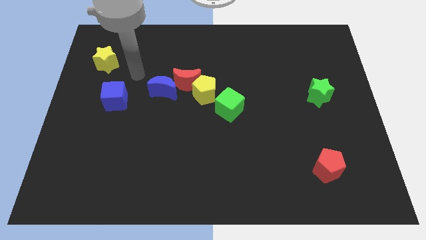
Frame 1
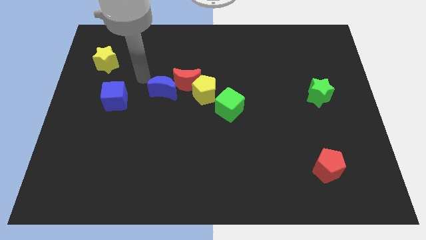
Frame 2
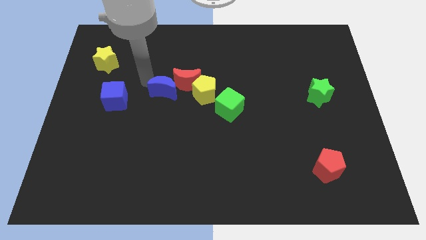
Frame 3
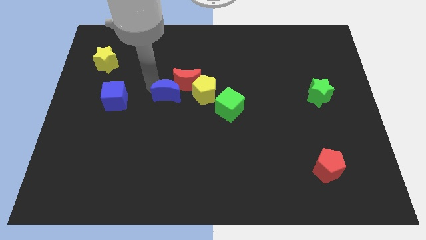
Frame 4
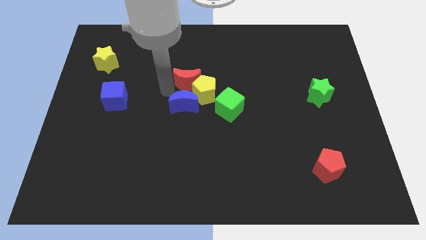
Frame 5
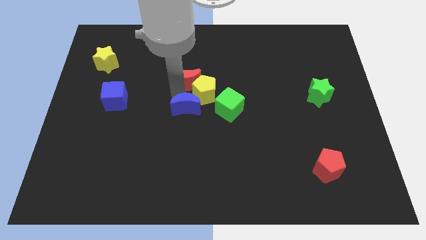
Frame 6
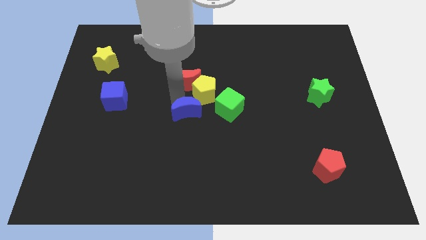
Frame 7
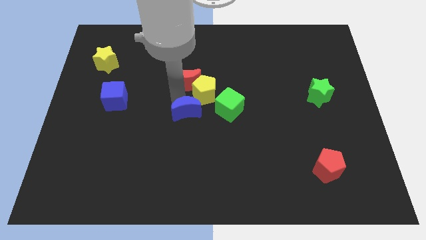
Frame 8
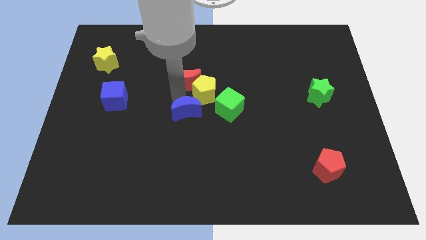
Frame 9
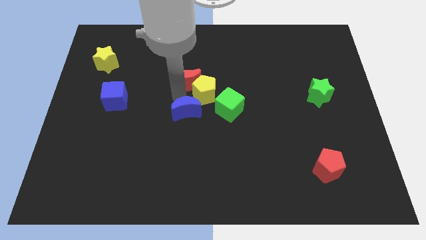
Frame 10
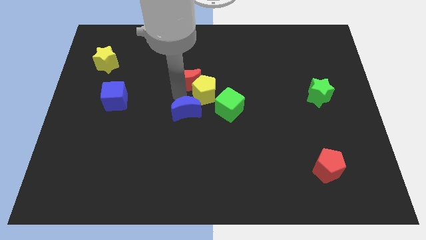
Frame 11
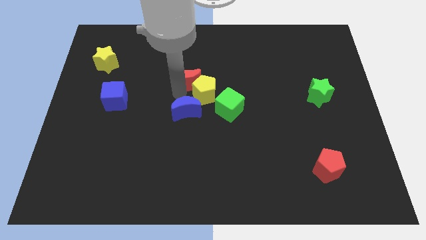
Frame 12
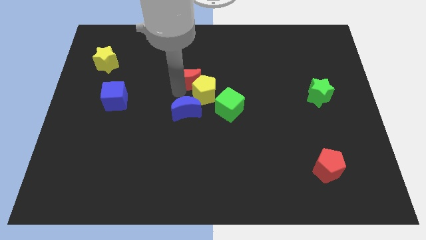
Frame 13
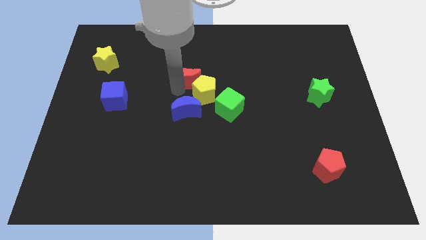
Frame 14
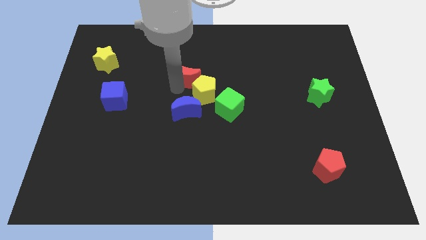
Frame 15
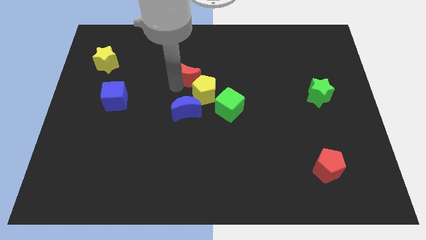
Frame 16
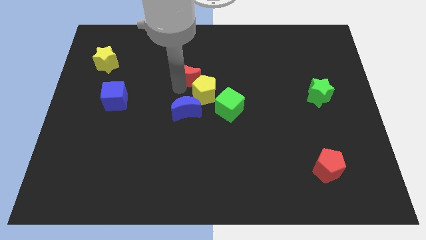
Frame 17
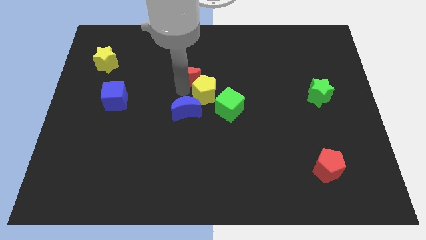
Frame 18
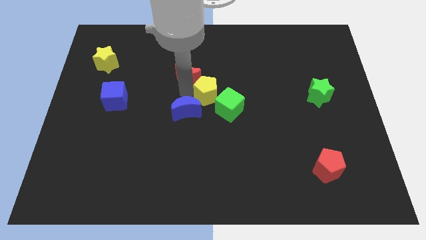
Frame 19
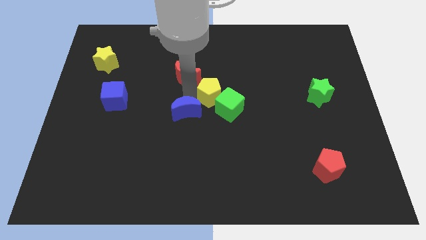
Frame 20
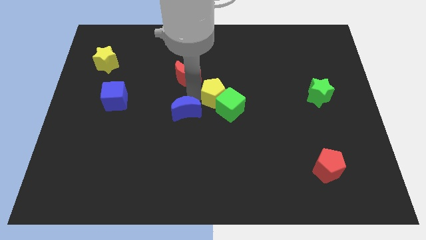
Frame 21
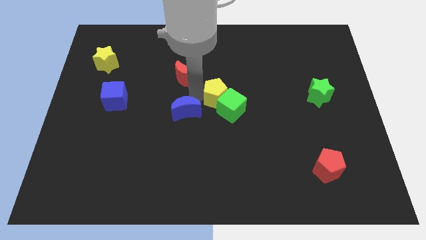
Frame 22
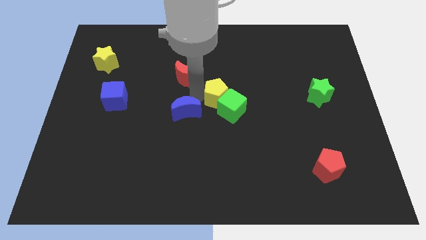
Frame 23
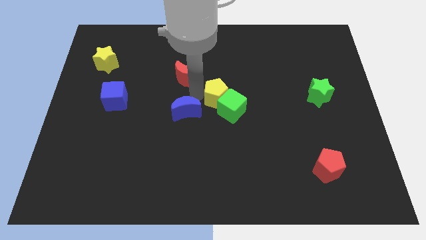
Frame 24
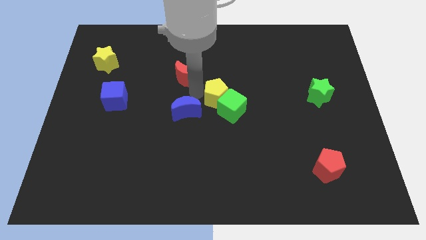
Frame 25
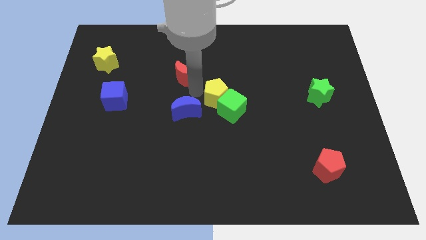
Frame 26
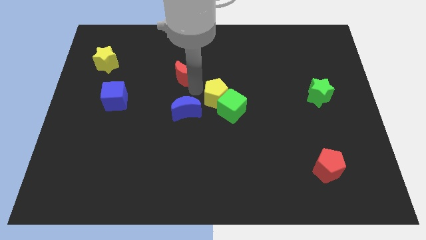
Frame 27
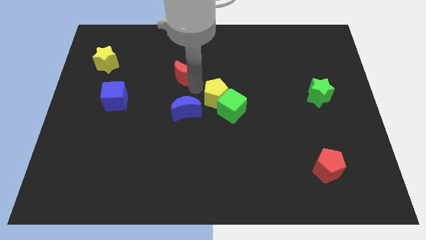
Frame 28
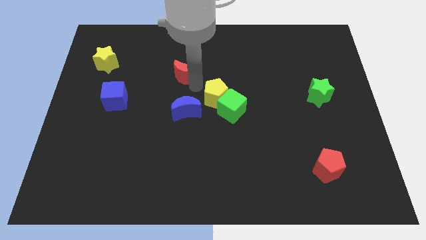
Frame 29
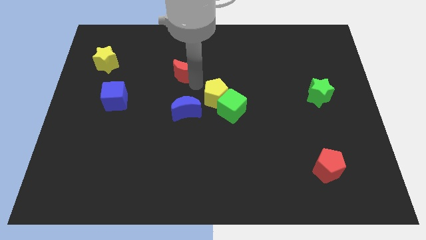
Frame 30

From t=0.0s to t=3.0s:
pull the red moon apart from the yellow pentagon and blue moon

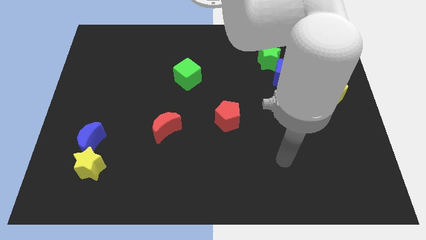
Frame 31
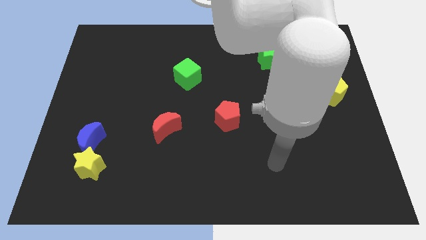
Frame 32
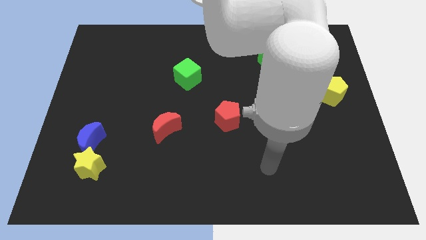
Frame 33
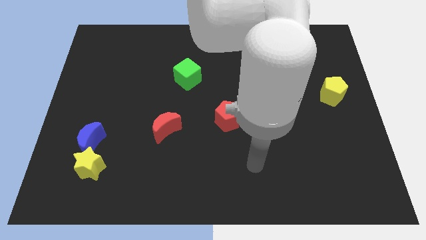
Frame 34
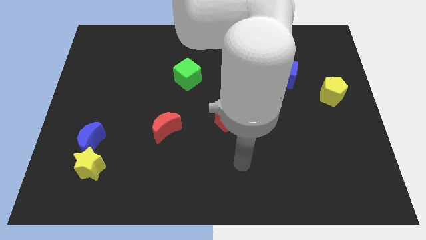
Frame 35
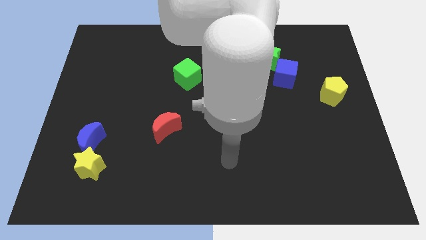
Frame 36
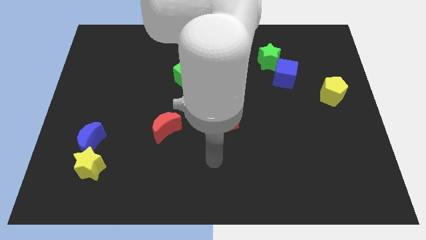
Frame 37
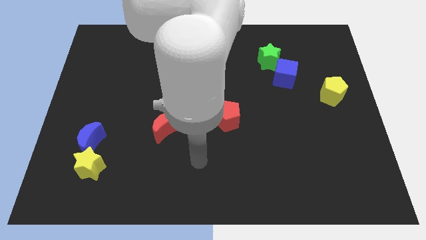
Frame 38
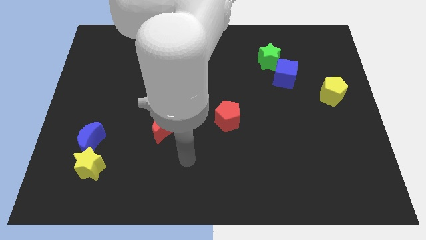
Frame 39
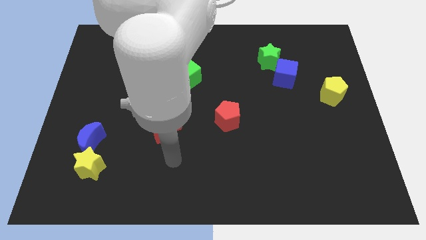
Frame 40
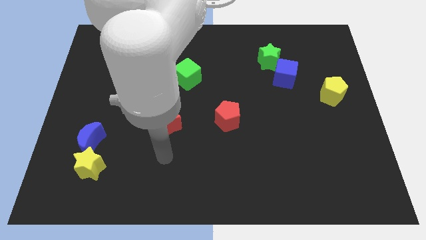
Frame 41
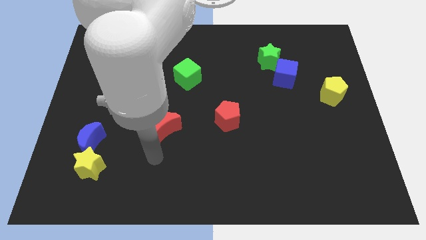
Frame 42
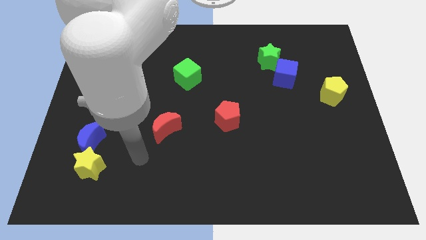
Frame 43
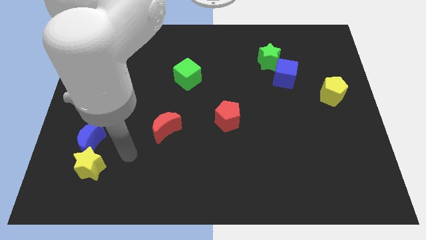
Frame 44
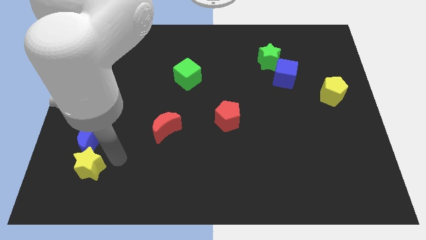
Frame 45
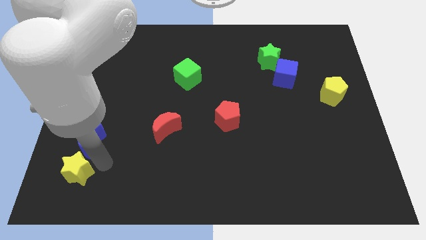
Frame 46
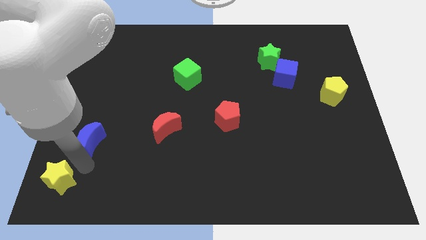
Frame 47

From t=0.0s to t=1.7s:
pull the blue moon apart from the yellow star

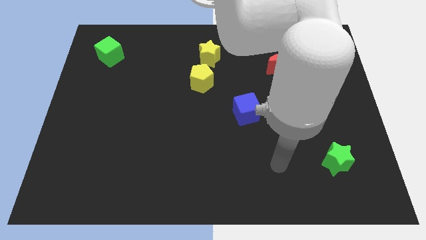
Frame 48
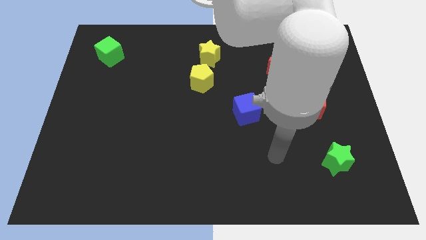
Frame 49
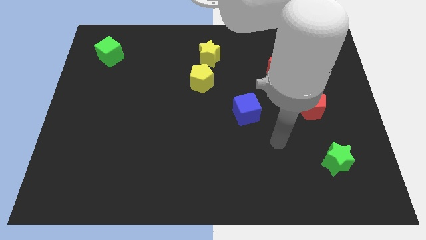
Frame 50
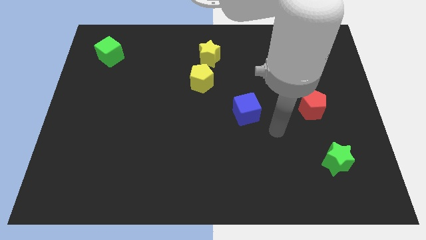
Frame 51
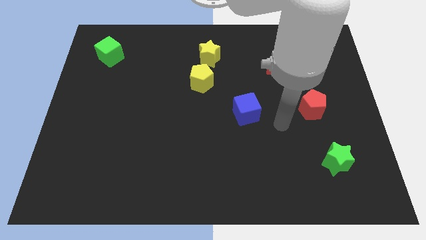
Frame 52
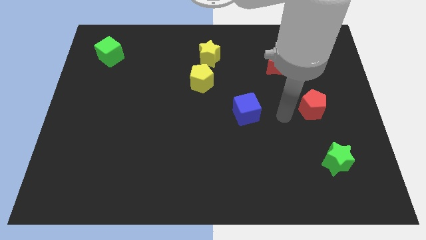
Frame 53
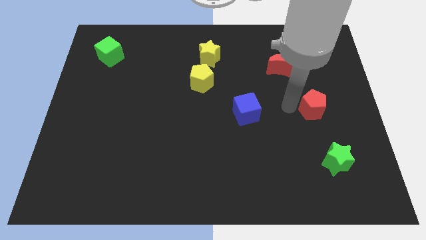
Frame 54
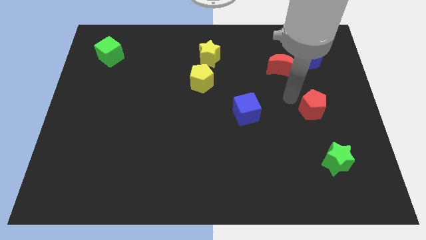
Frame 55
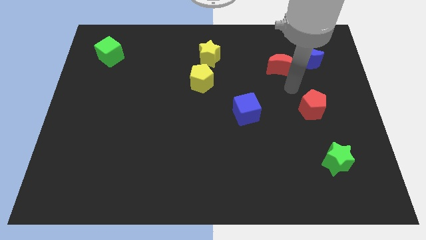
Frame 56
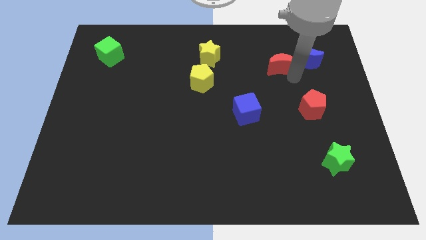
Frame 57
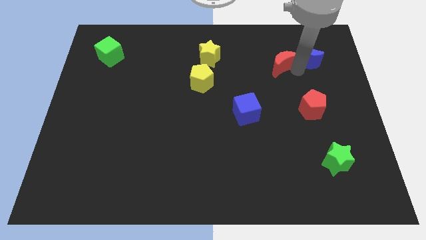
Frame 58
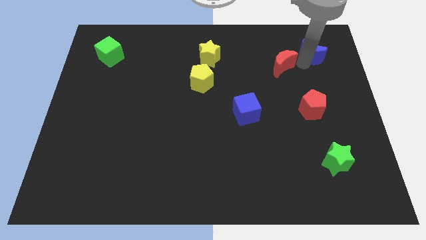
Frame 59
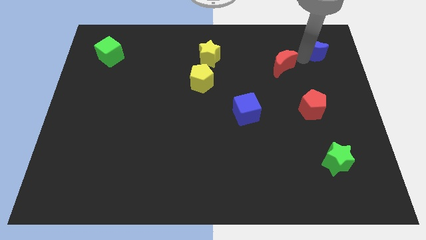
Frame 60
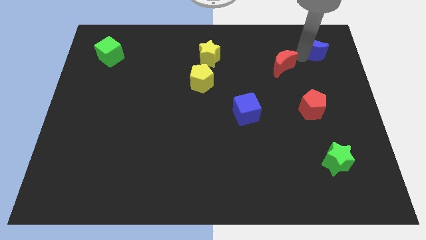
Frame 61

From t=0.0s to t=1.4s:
separate the red moon from the blue moon

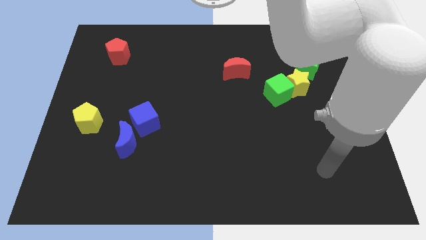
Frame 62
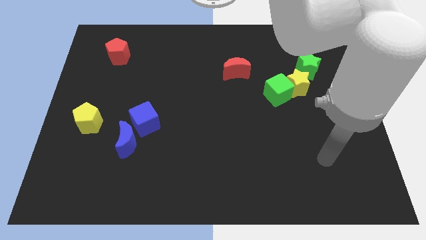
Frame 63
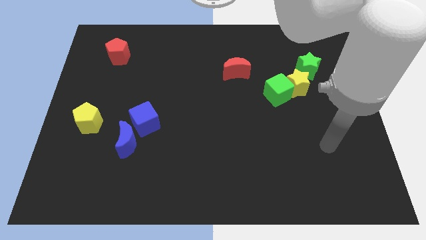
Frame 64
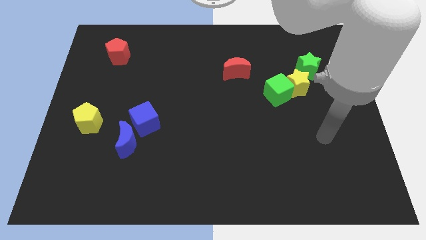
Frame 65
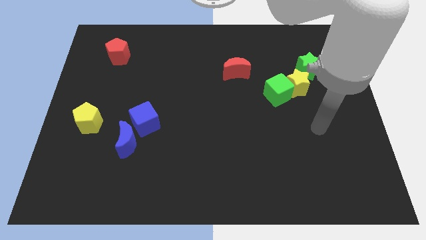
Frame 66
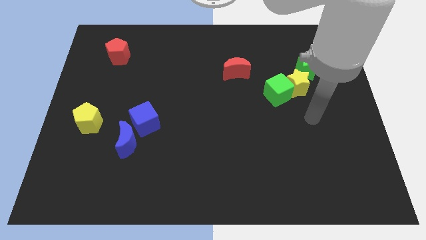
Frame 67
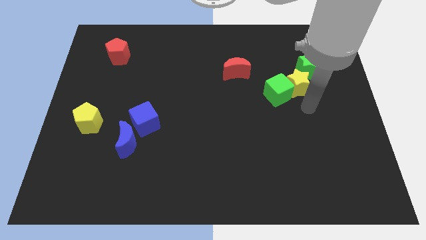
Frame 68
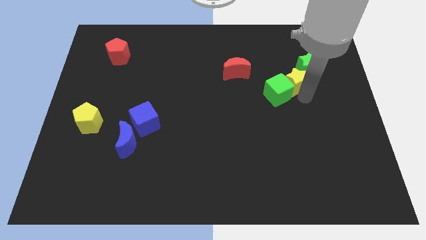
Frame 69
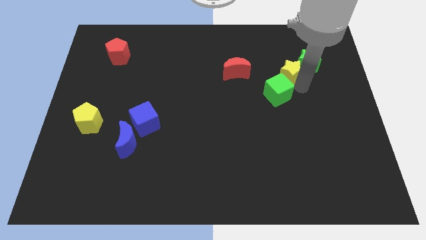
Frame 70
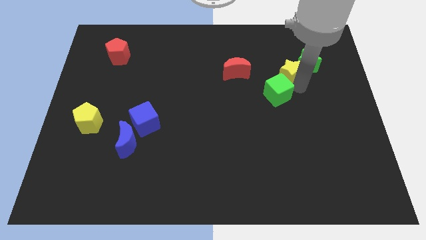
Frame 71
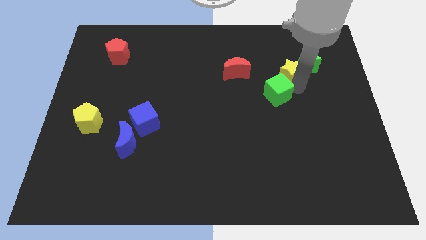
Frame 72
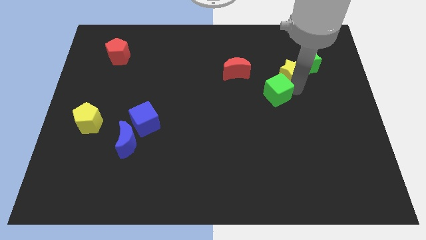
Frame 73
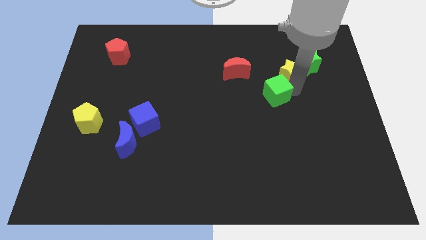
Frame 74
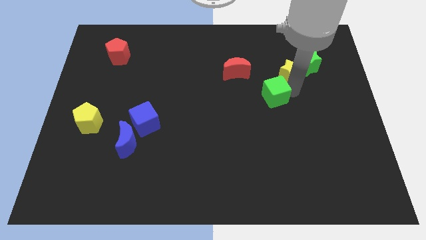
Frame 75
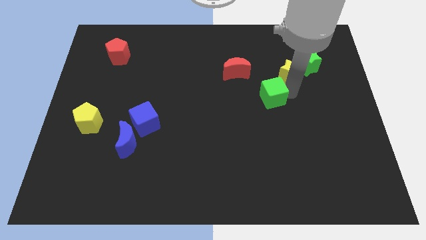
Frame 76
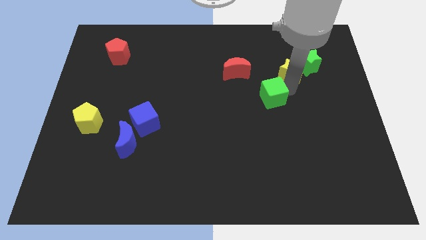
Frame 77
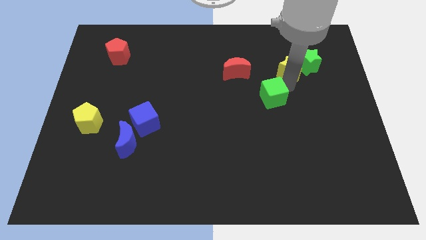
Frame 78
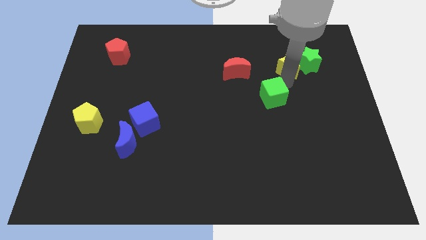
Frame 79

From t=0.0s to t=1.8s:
move the green cube away from the yellow star

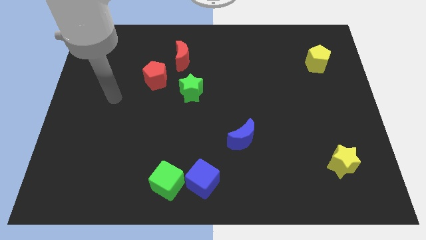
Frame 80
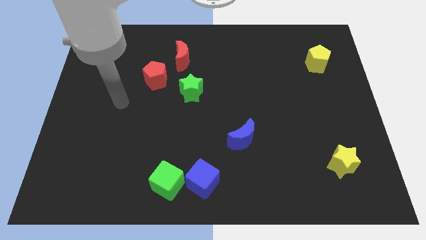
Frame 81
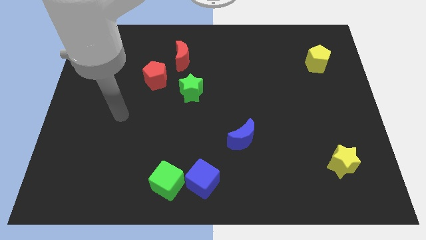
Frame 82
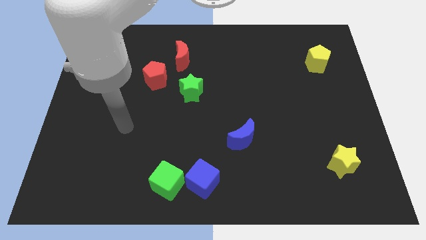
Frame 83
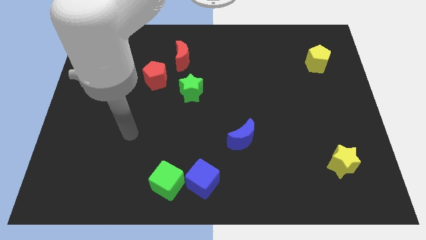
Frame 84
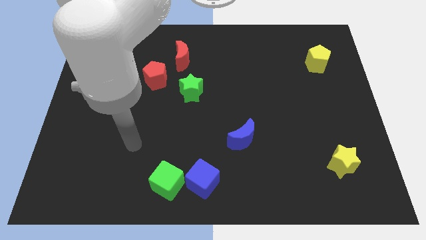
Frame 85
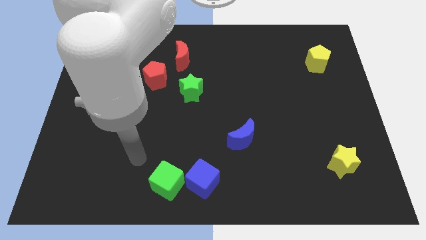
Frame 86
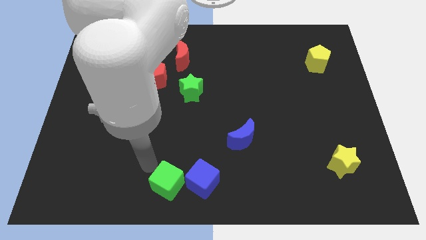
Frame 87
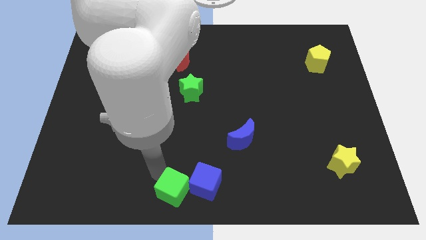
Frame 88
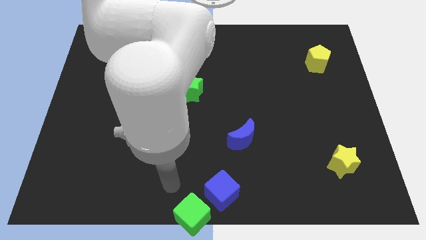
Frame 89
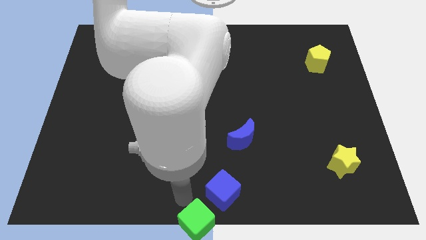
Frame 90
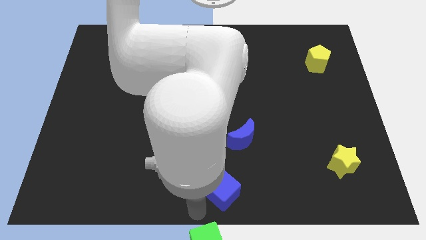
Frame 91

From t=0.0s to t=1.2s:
separate the blue cube from the green cube

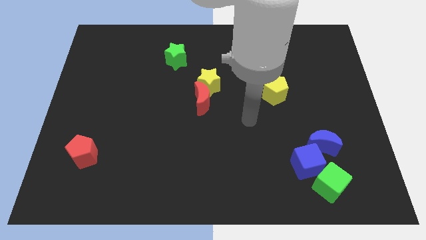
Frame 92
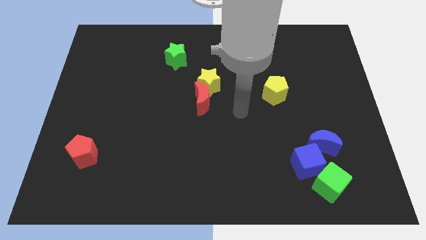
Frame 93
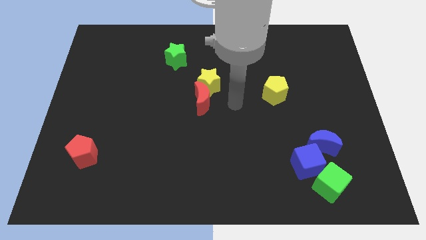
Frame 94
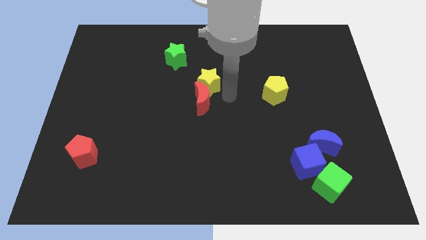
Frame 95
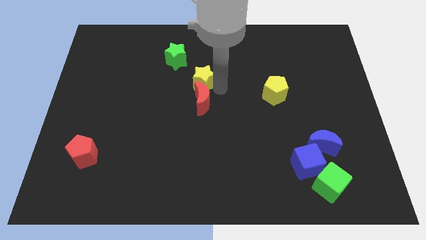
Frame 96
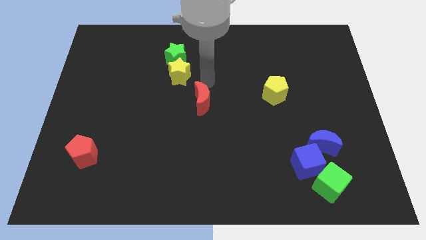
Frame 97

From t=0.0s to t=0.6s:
pull the red moon apart from the yellow star
